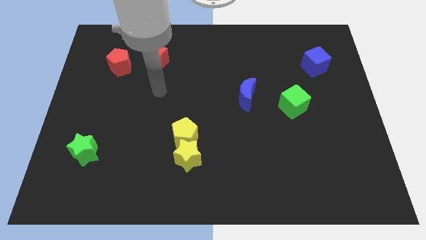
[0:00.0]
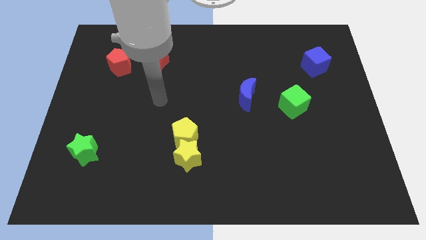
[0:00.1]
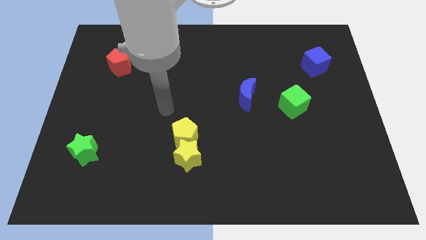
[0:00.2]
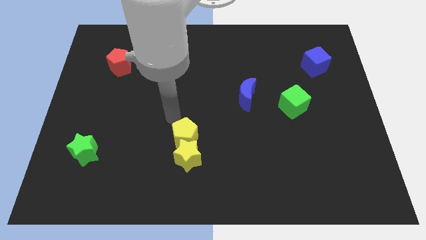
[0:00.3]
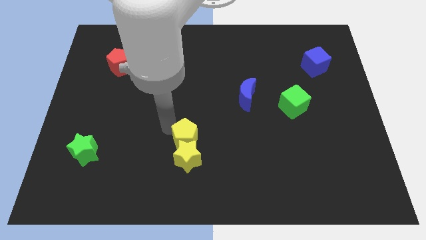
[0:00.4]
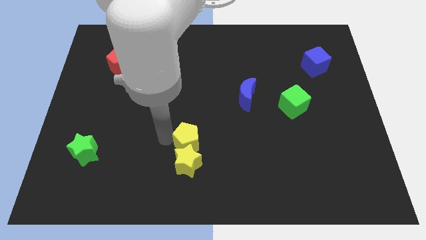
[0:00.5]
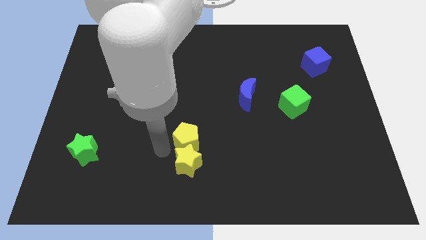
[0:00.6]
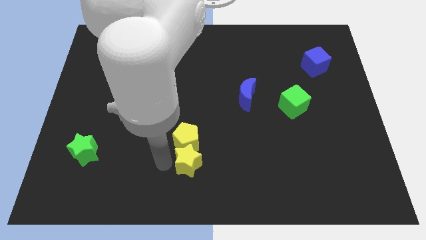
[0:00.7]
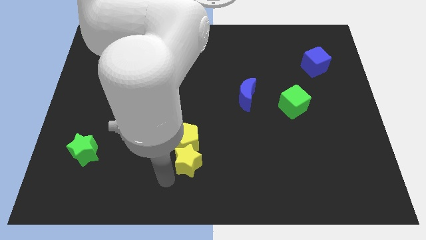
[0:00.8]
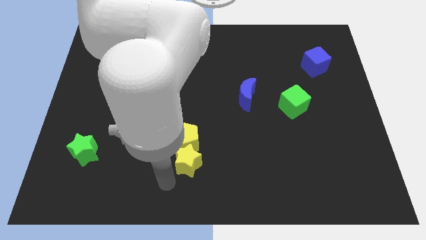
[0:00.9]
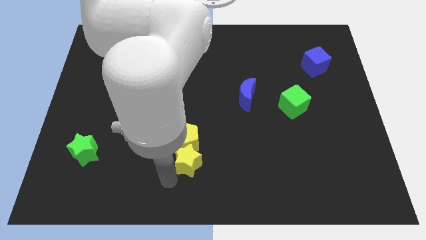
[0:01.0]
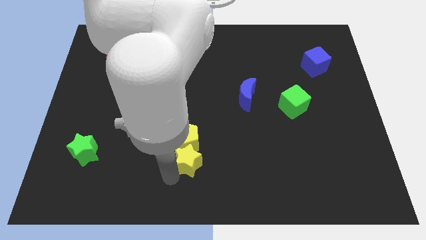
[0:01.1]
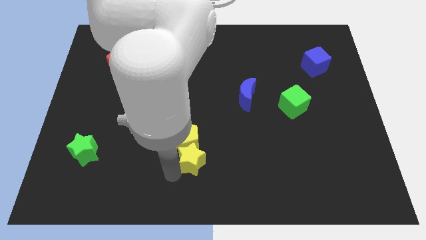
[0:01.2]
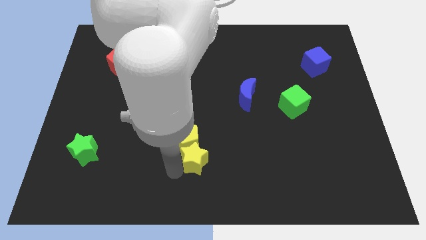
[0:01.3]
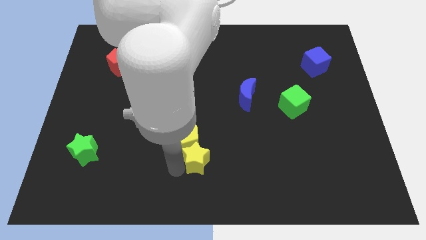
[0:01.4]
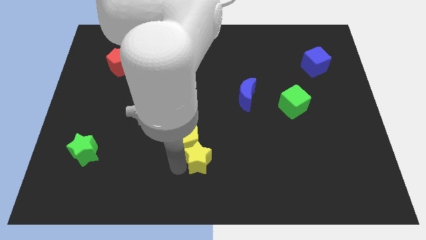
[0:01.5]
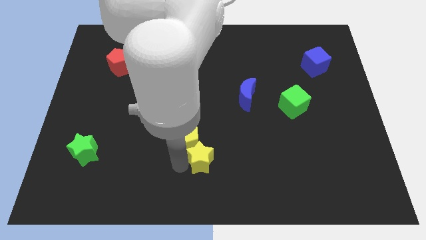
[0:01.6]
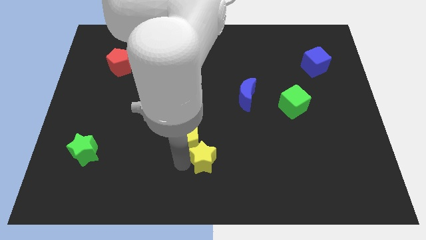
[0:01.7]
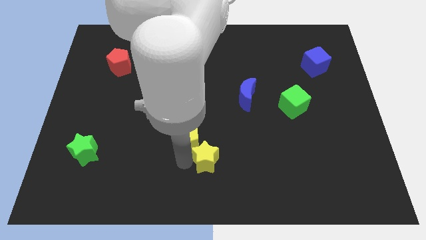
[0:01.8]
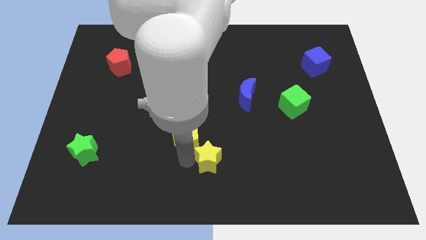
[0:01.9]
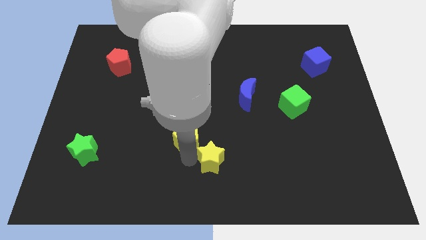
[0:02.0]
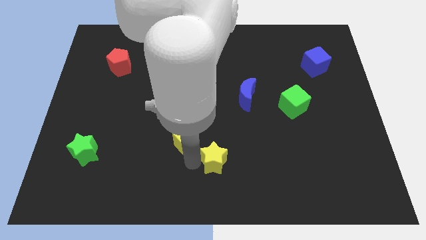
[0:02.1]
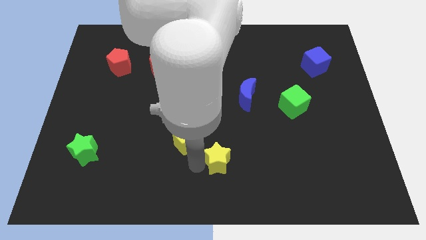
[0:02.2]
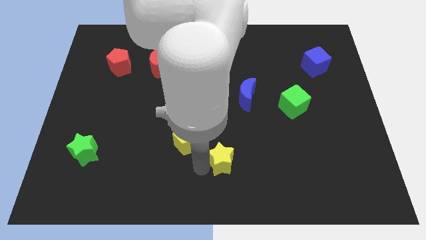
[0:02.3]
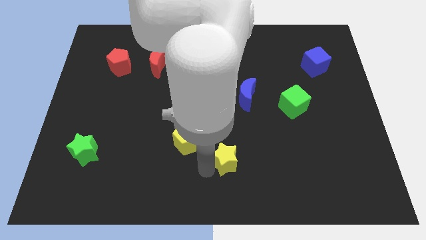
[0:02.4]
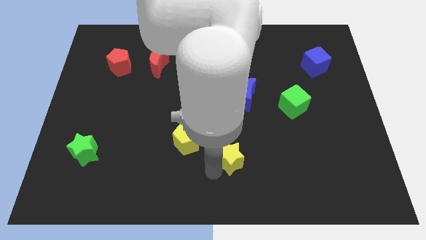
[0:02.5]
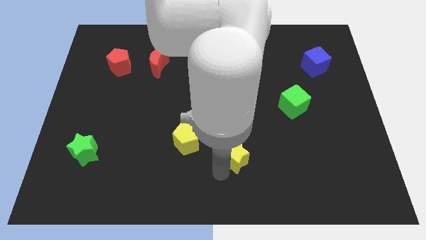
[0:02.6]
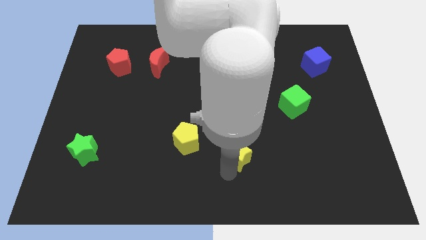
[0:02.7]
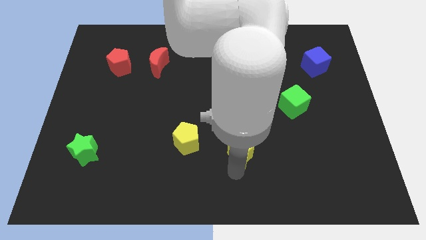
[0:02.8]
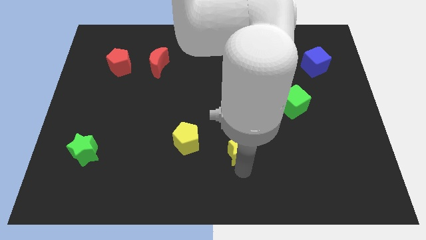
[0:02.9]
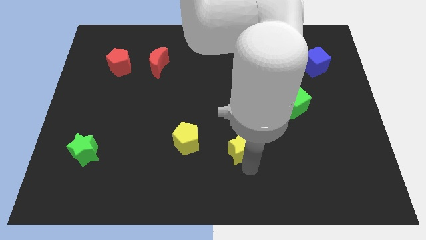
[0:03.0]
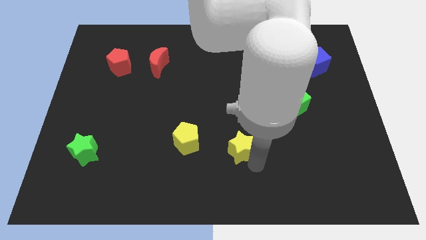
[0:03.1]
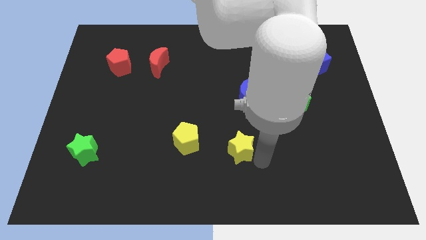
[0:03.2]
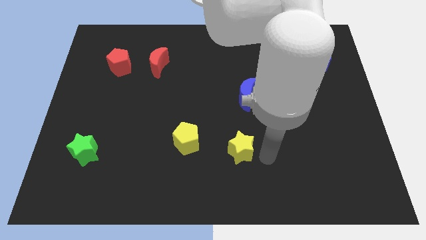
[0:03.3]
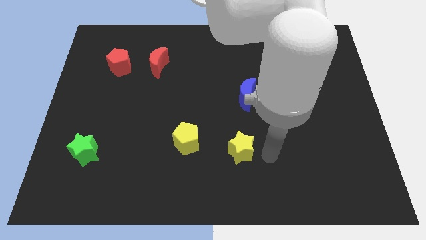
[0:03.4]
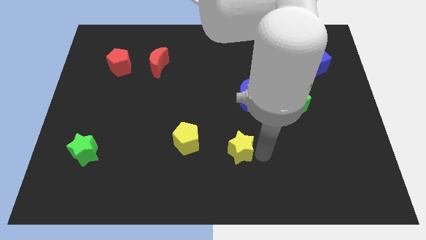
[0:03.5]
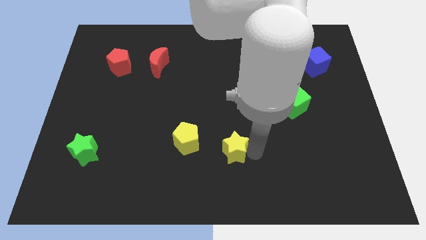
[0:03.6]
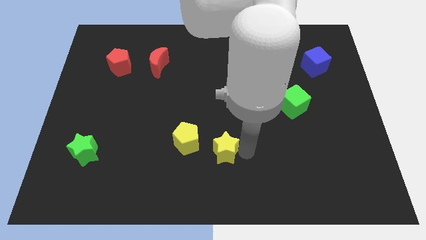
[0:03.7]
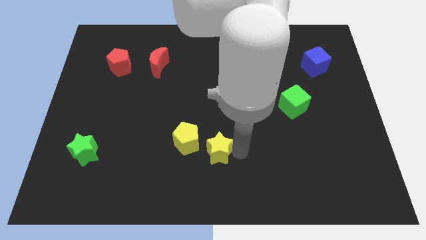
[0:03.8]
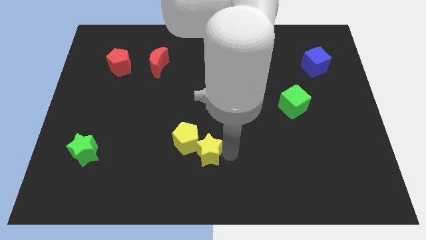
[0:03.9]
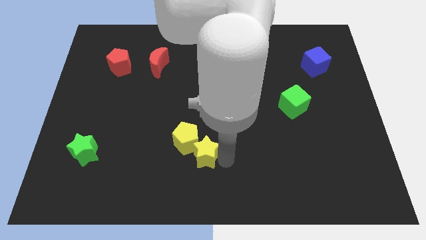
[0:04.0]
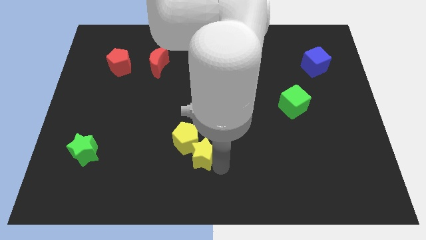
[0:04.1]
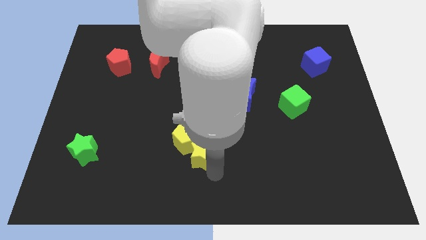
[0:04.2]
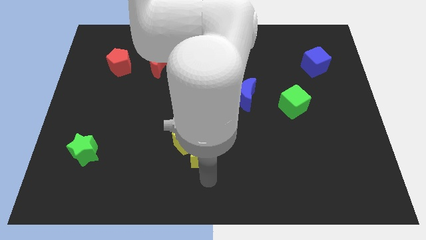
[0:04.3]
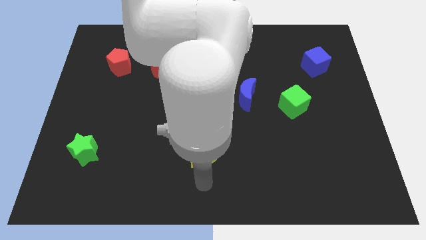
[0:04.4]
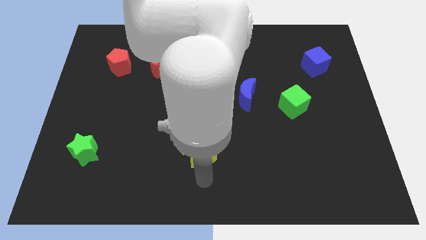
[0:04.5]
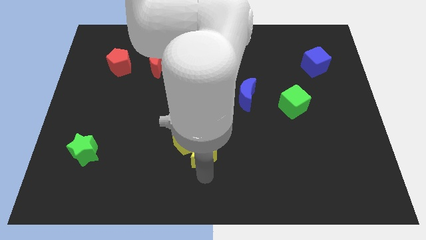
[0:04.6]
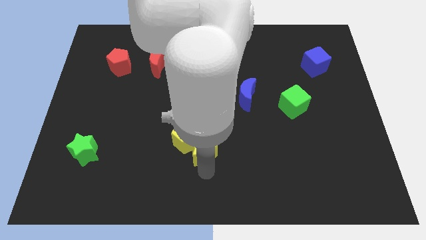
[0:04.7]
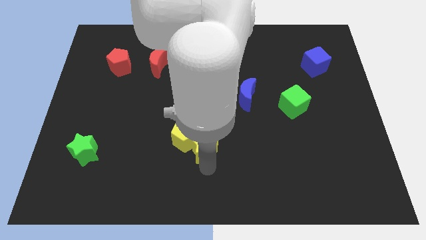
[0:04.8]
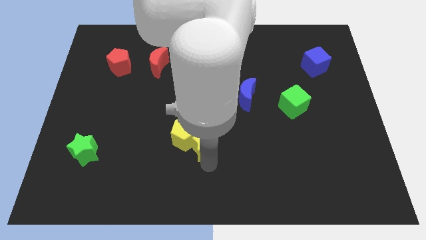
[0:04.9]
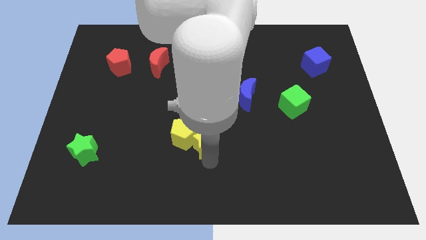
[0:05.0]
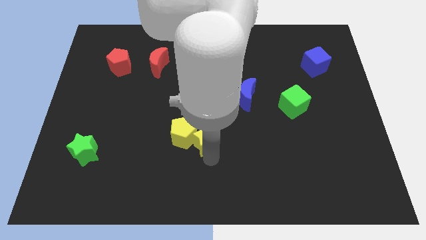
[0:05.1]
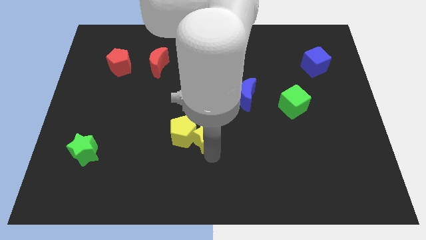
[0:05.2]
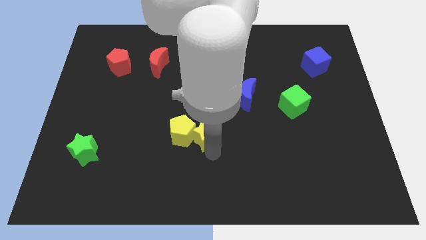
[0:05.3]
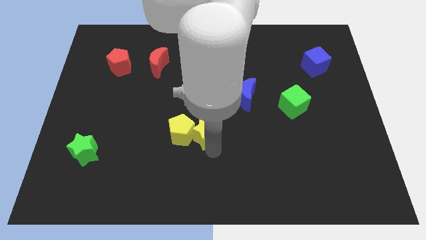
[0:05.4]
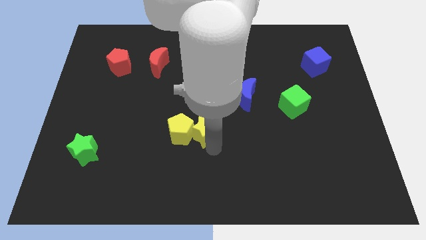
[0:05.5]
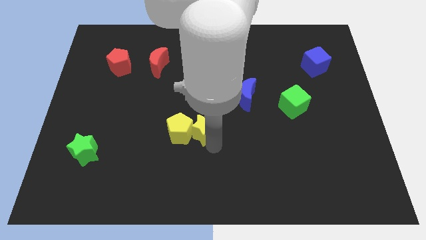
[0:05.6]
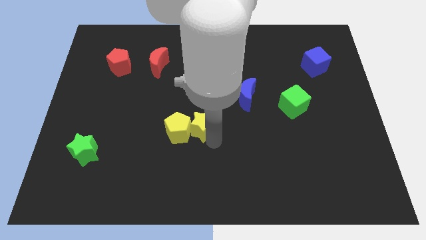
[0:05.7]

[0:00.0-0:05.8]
slide the yellow star up a little bit

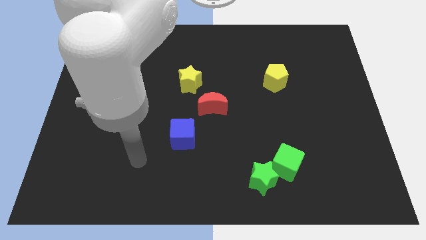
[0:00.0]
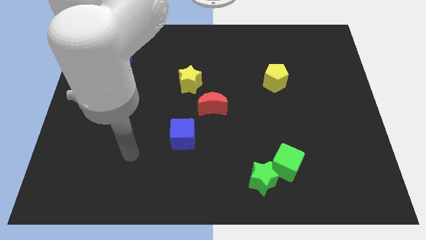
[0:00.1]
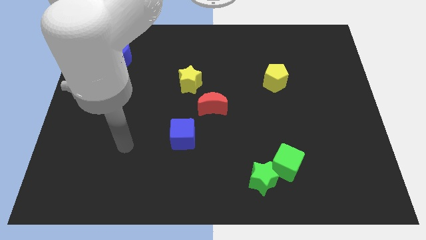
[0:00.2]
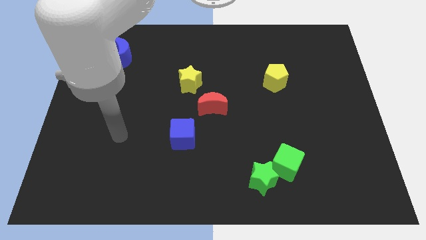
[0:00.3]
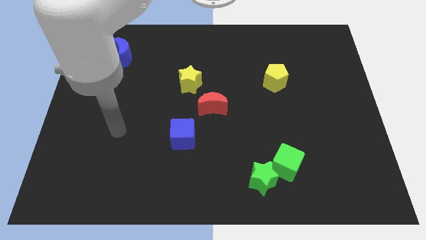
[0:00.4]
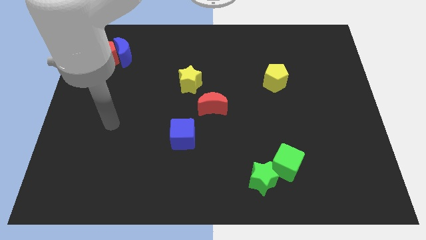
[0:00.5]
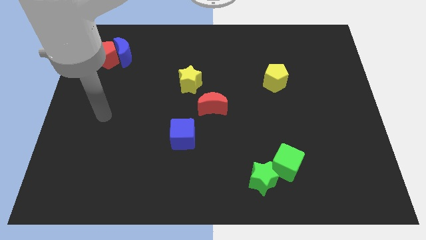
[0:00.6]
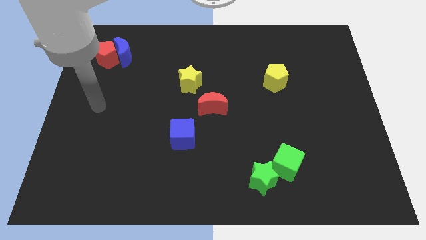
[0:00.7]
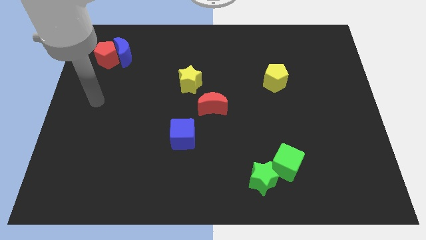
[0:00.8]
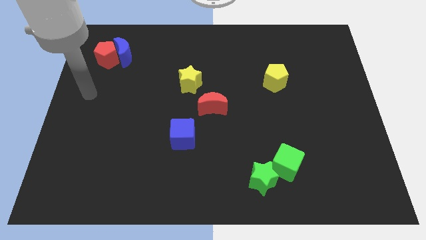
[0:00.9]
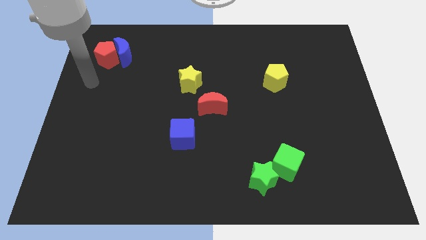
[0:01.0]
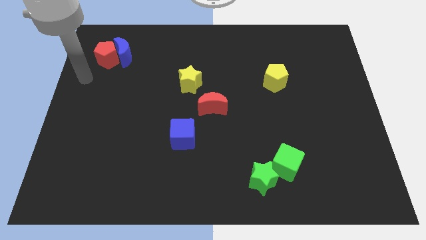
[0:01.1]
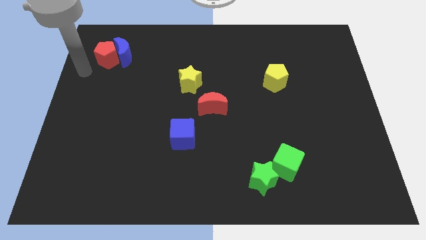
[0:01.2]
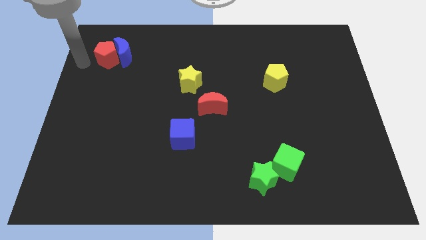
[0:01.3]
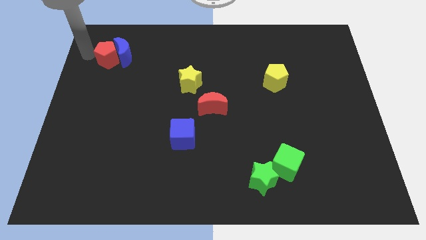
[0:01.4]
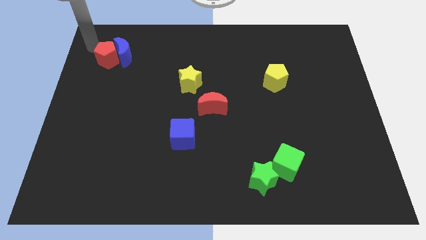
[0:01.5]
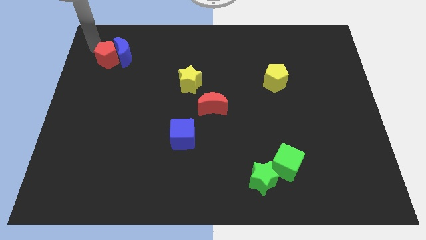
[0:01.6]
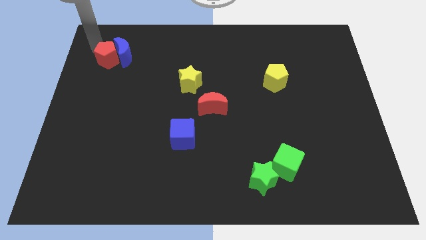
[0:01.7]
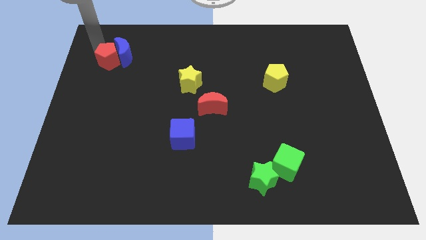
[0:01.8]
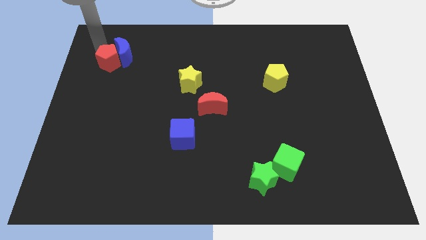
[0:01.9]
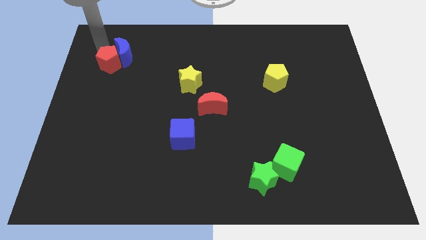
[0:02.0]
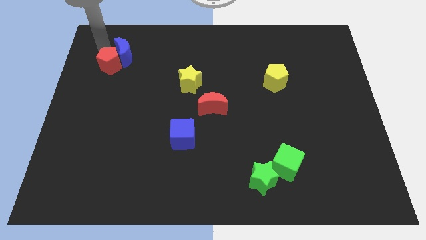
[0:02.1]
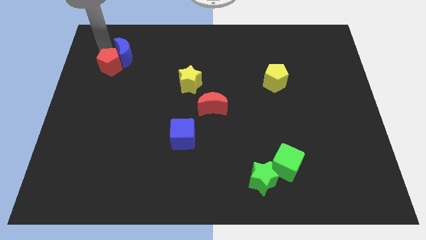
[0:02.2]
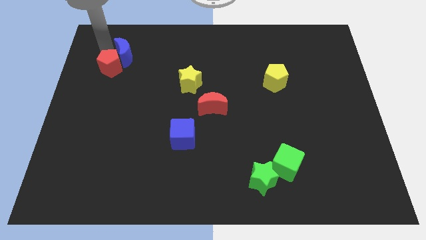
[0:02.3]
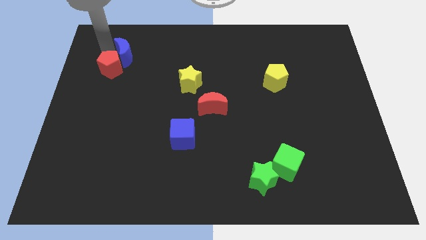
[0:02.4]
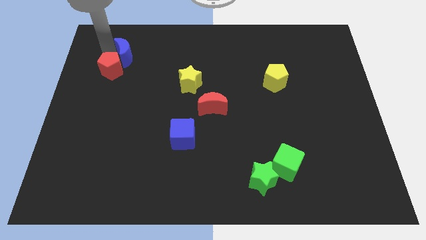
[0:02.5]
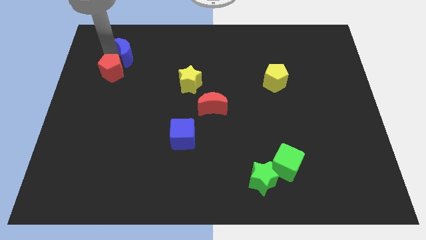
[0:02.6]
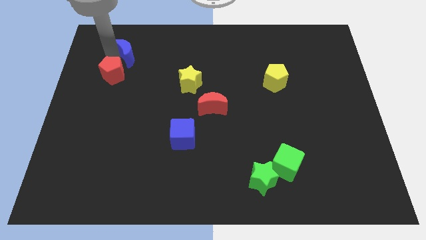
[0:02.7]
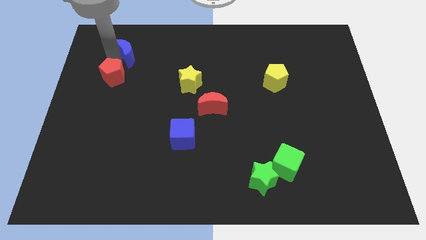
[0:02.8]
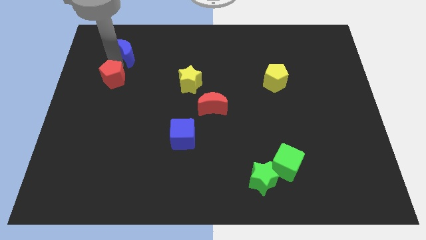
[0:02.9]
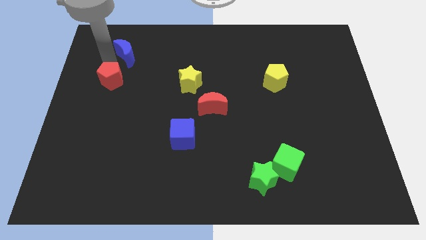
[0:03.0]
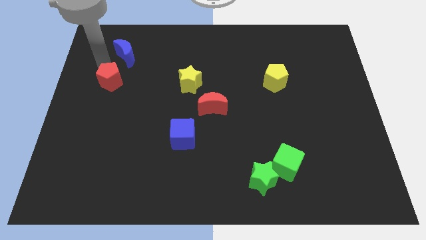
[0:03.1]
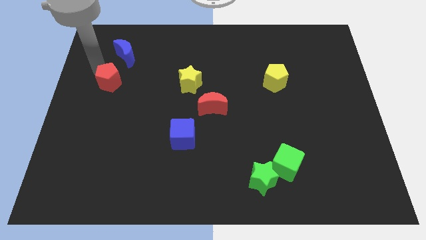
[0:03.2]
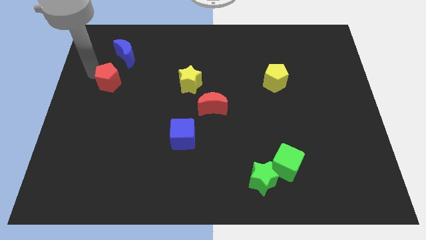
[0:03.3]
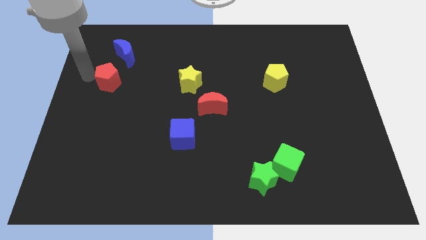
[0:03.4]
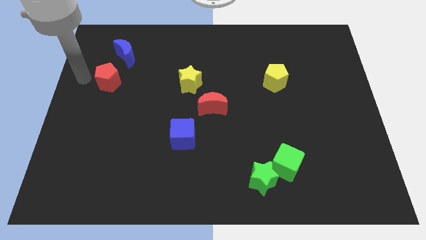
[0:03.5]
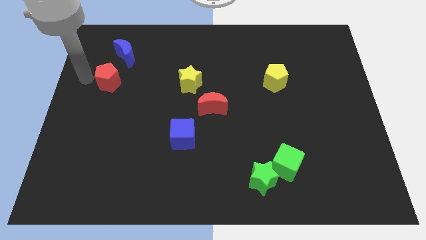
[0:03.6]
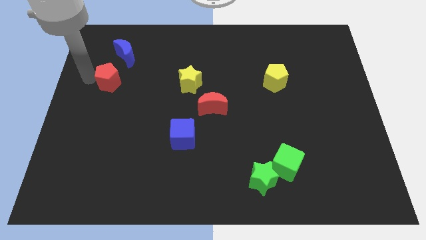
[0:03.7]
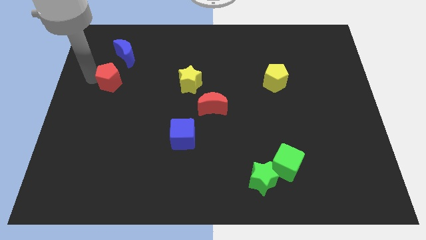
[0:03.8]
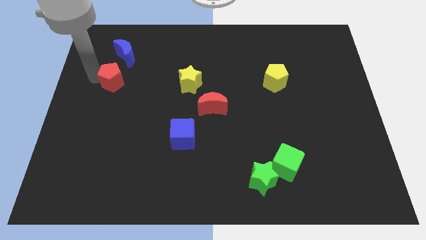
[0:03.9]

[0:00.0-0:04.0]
slide the red pentagon slightly down and right diagonally
